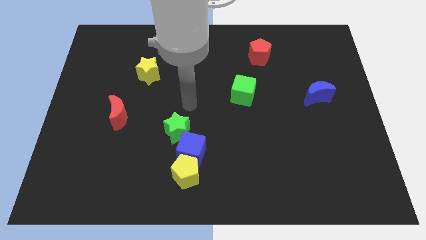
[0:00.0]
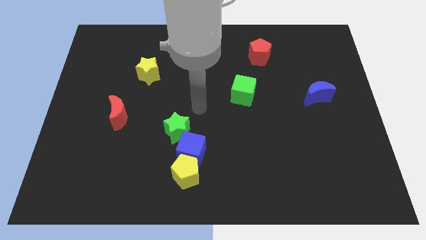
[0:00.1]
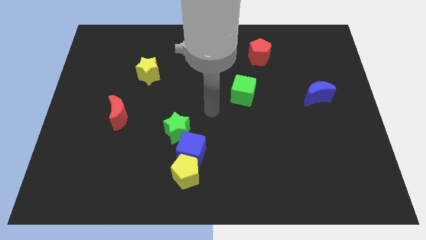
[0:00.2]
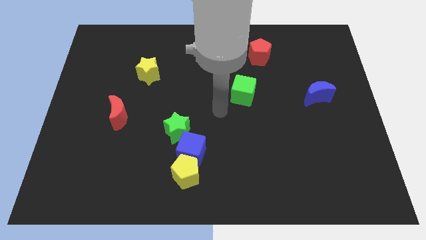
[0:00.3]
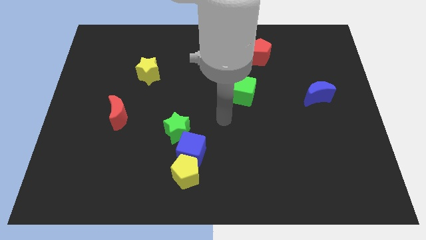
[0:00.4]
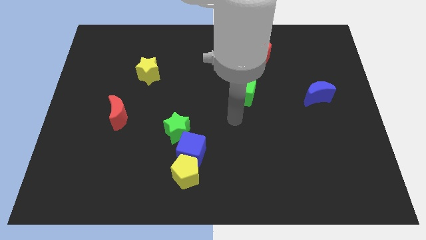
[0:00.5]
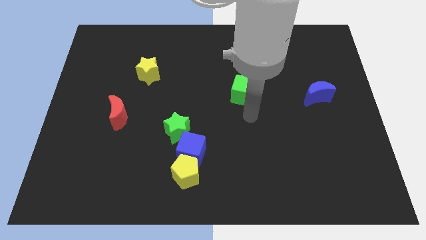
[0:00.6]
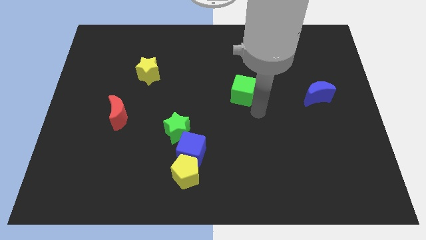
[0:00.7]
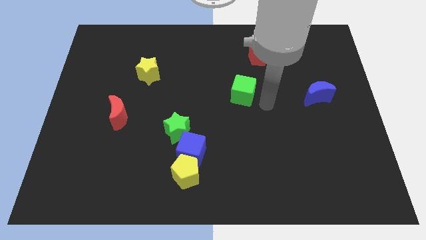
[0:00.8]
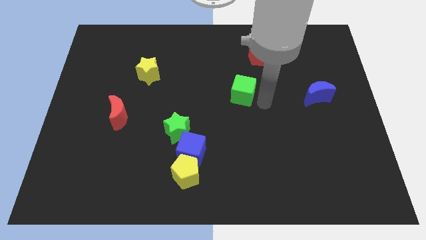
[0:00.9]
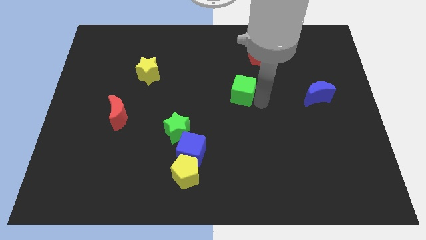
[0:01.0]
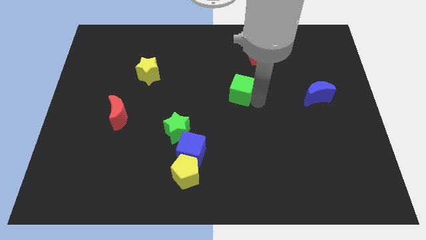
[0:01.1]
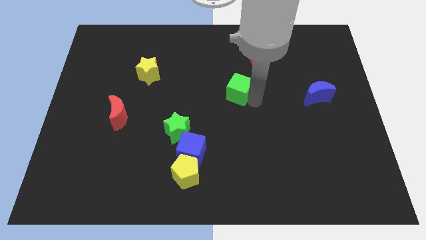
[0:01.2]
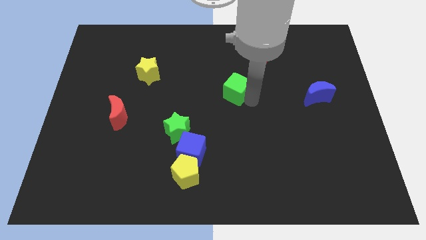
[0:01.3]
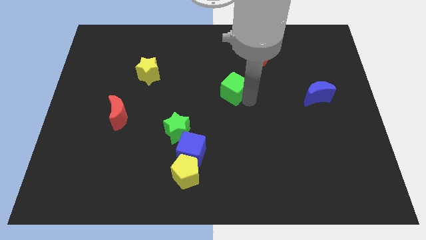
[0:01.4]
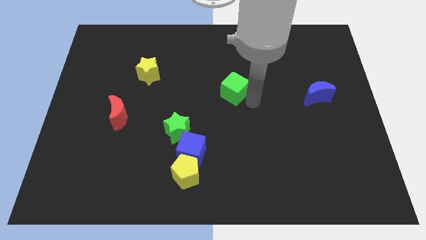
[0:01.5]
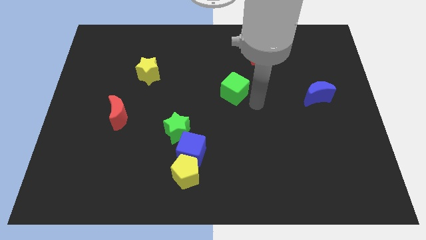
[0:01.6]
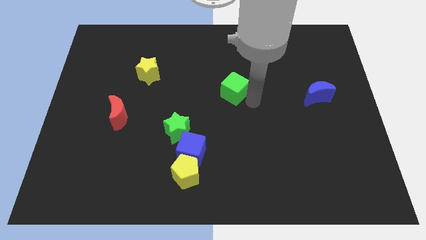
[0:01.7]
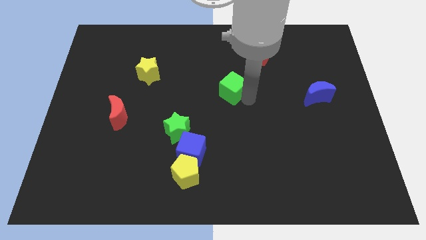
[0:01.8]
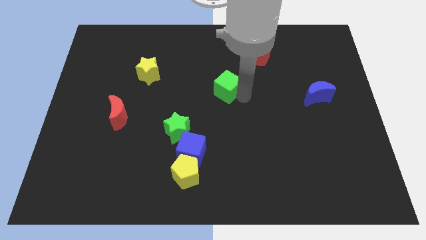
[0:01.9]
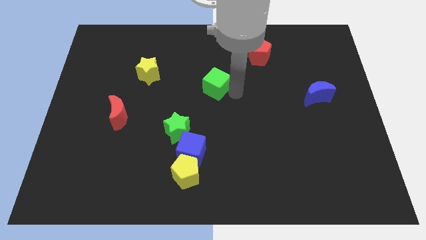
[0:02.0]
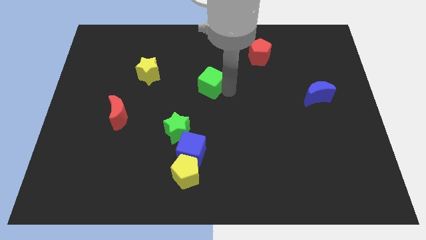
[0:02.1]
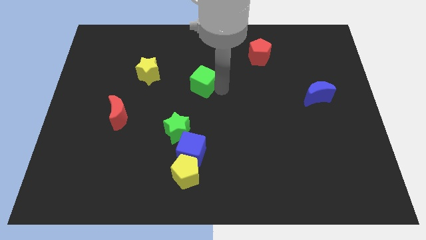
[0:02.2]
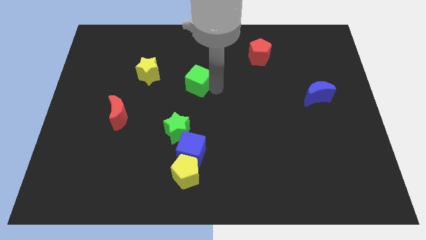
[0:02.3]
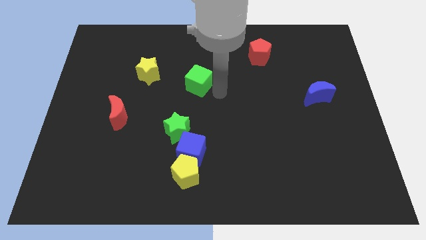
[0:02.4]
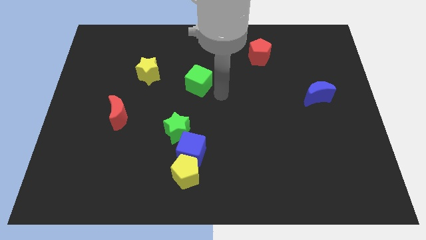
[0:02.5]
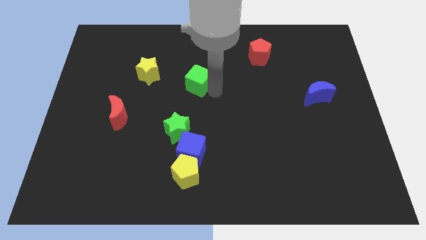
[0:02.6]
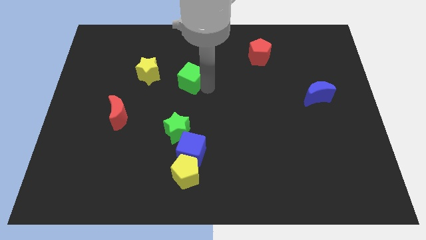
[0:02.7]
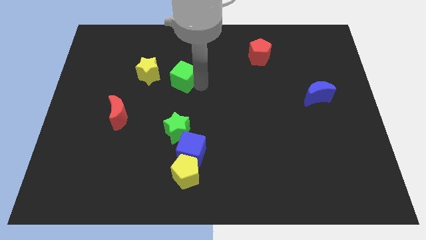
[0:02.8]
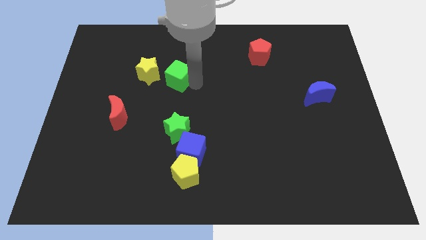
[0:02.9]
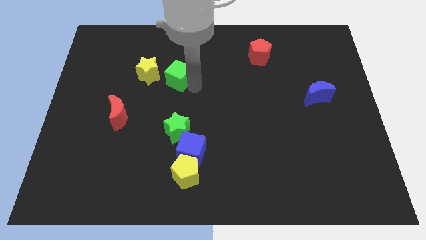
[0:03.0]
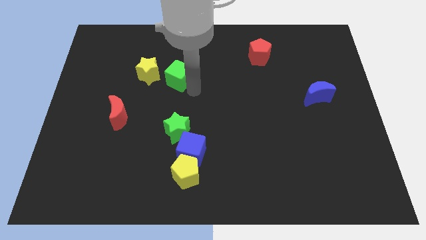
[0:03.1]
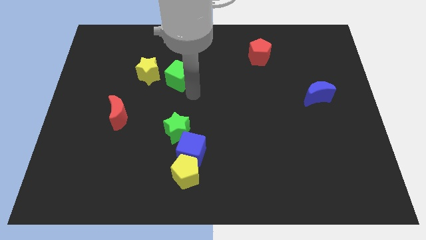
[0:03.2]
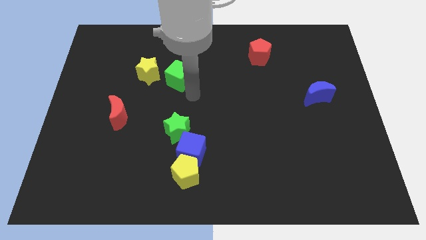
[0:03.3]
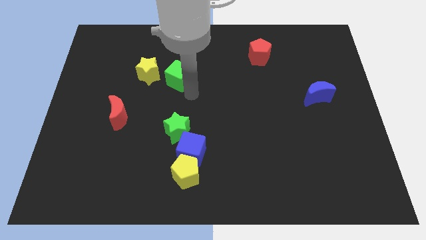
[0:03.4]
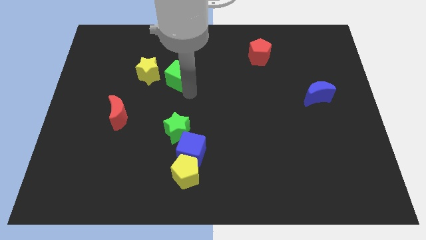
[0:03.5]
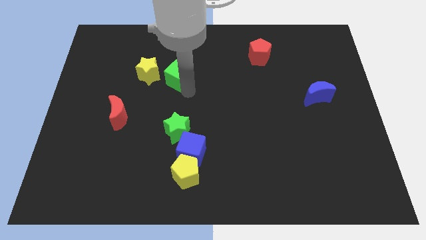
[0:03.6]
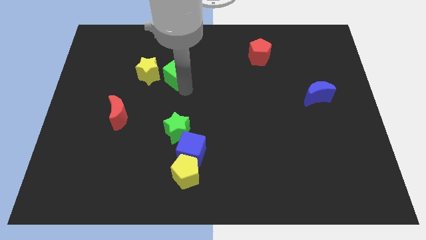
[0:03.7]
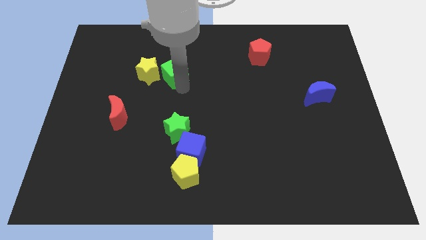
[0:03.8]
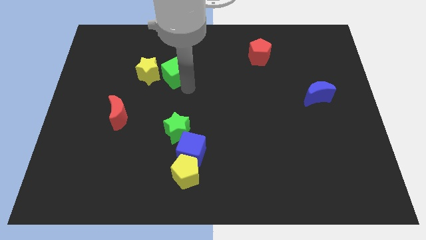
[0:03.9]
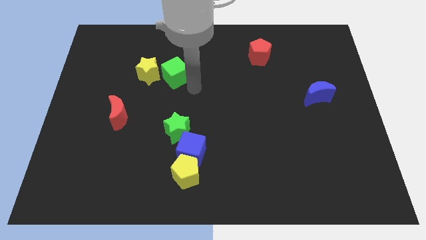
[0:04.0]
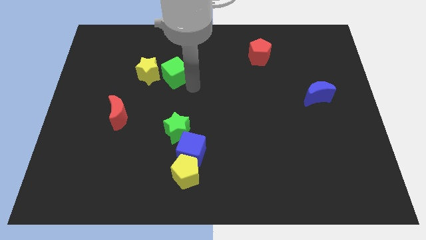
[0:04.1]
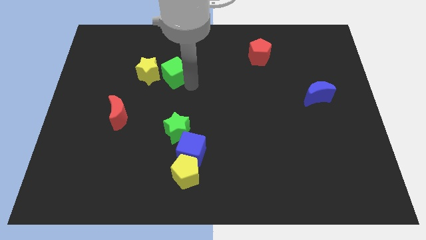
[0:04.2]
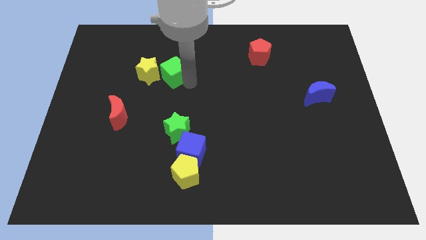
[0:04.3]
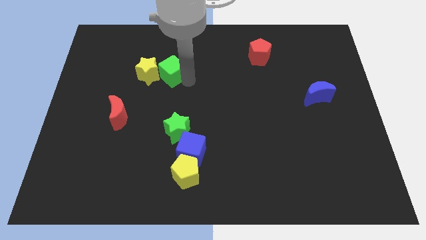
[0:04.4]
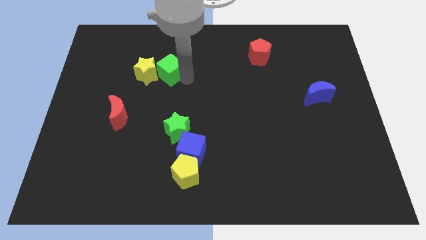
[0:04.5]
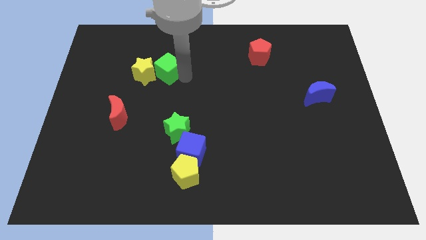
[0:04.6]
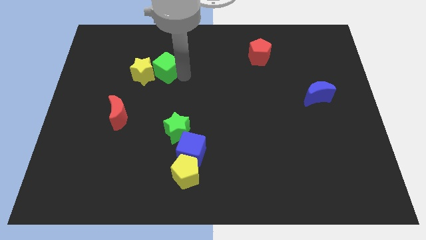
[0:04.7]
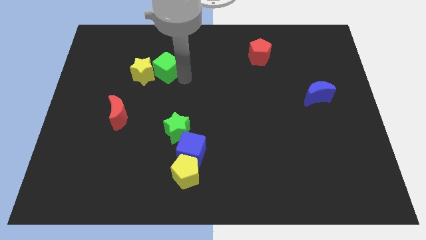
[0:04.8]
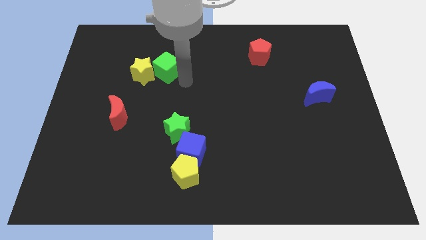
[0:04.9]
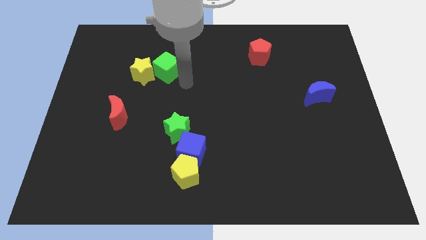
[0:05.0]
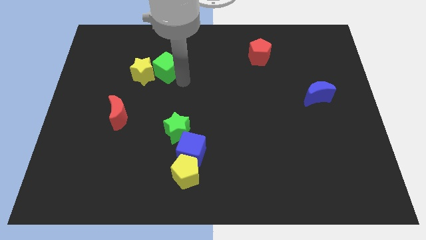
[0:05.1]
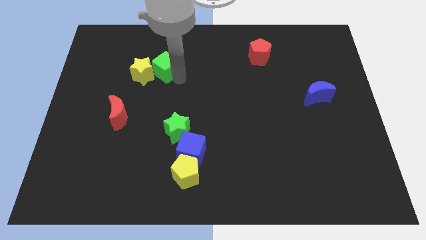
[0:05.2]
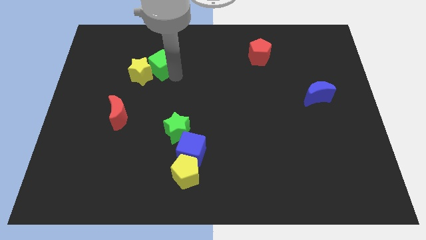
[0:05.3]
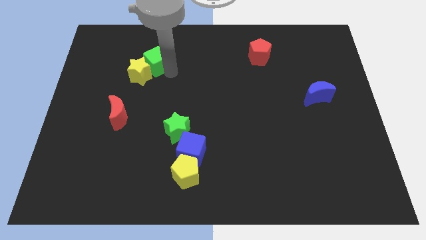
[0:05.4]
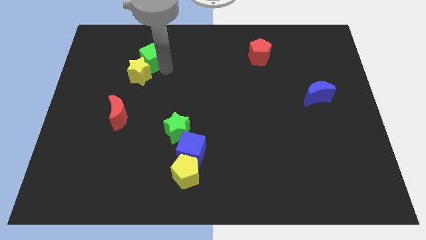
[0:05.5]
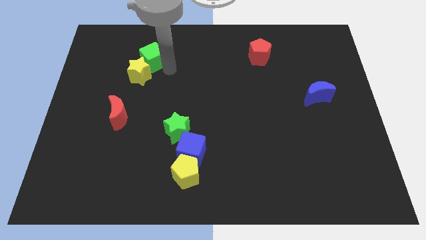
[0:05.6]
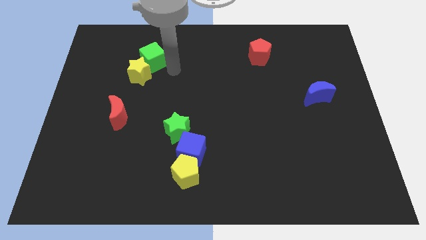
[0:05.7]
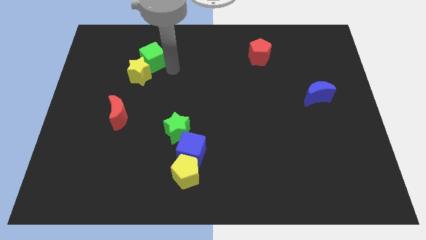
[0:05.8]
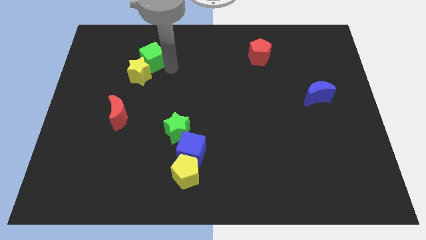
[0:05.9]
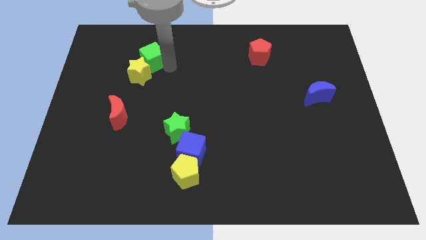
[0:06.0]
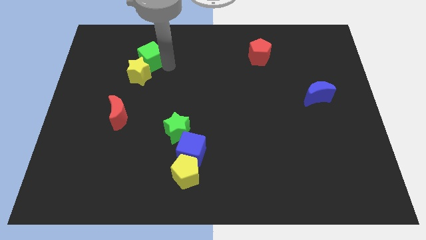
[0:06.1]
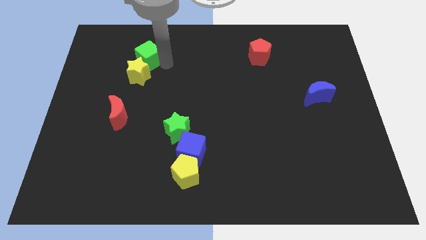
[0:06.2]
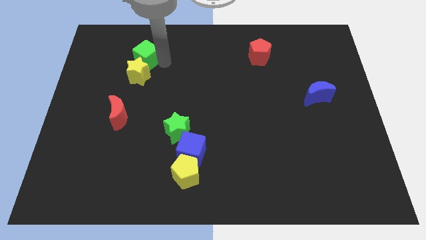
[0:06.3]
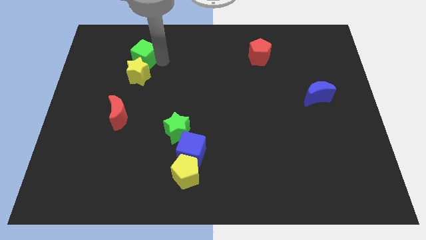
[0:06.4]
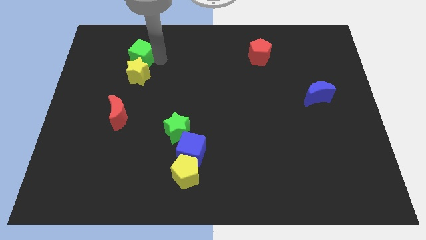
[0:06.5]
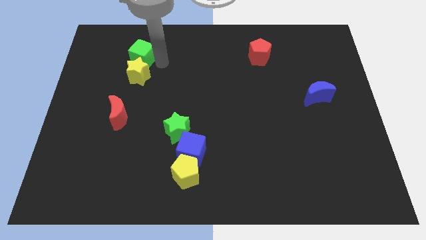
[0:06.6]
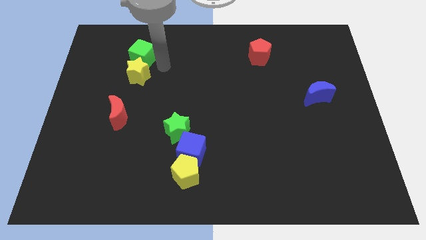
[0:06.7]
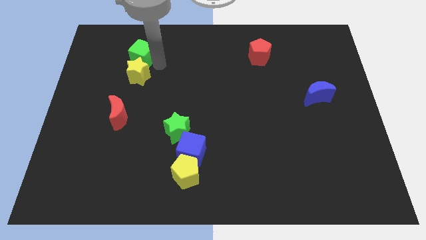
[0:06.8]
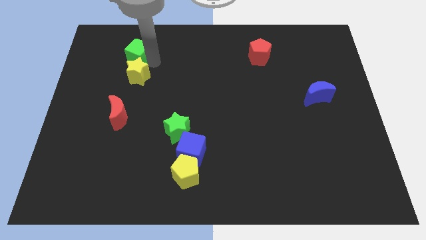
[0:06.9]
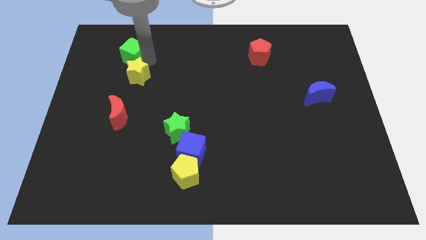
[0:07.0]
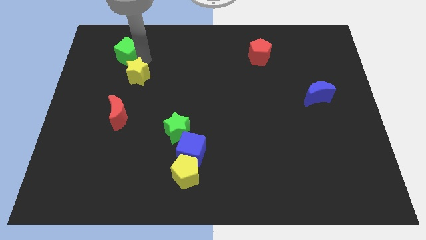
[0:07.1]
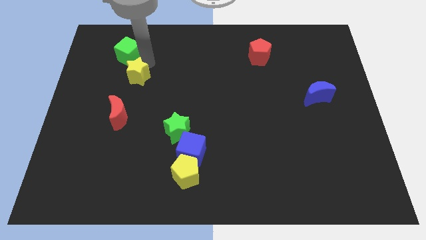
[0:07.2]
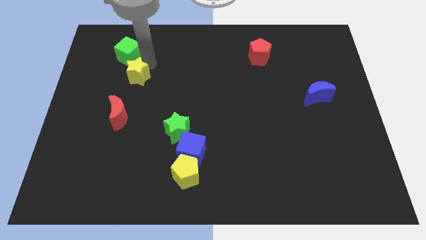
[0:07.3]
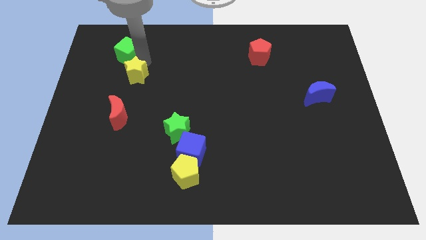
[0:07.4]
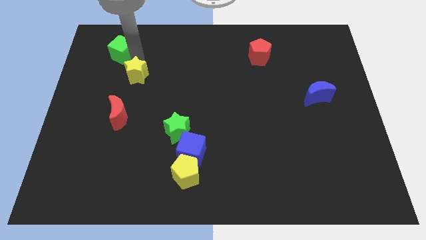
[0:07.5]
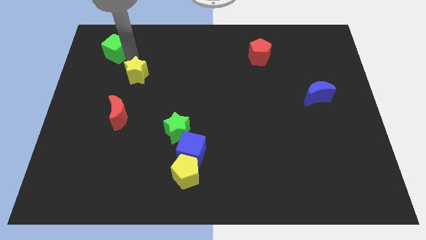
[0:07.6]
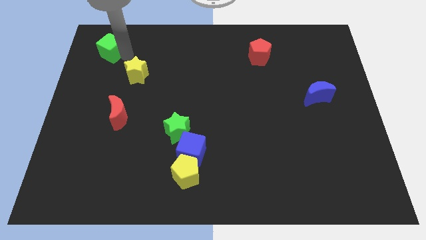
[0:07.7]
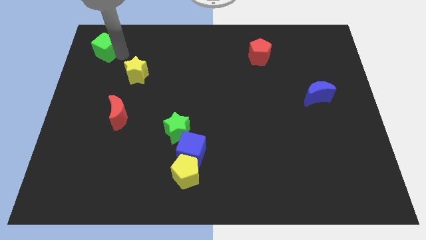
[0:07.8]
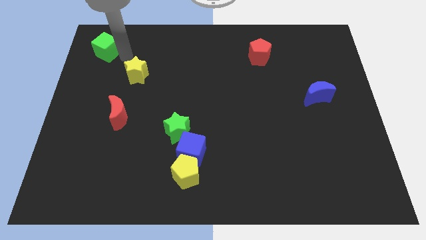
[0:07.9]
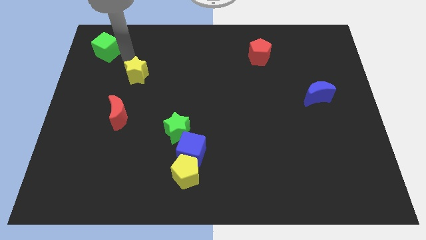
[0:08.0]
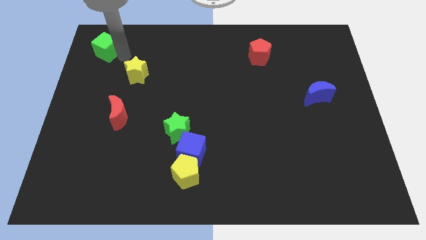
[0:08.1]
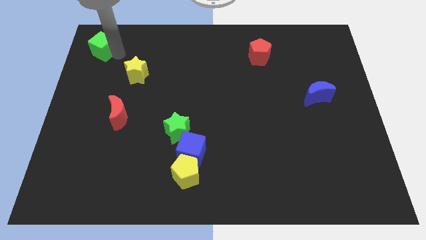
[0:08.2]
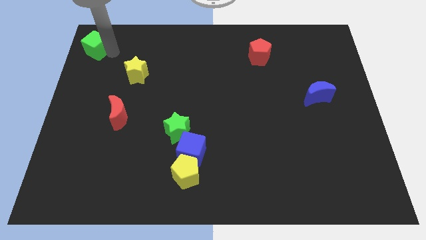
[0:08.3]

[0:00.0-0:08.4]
slide the green cube to the upper left corner
